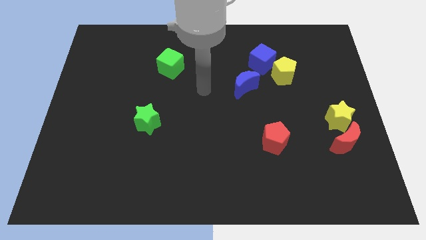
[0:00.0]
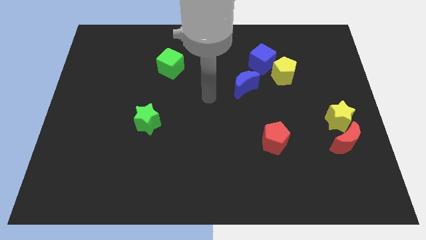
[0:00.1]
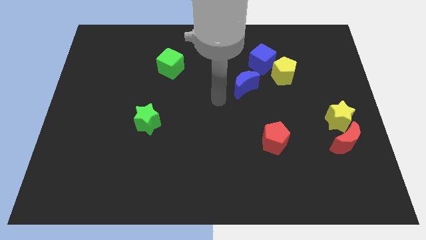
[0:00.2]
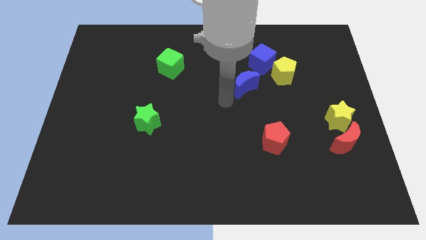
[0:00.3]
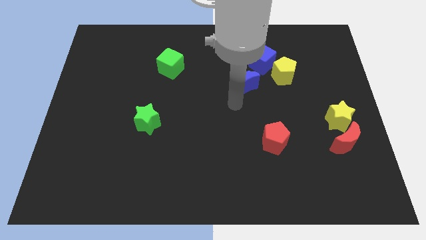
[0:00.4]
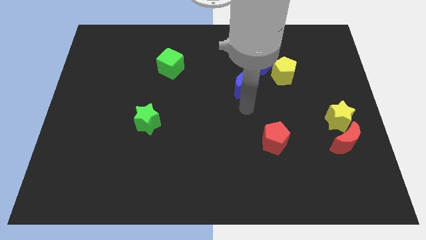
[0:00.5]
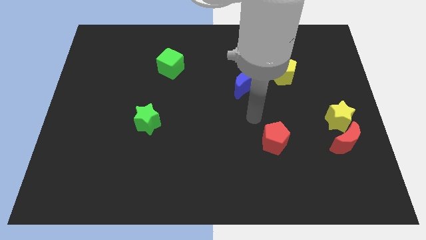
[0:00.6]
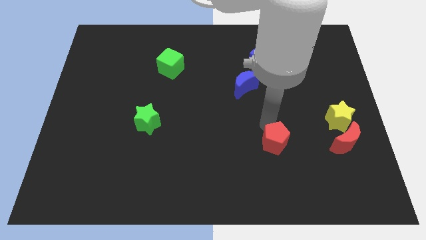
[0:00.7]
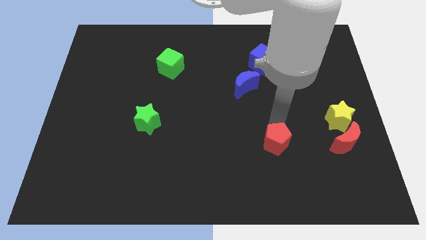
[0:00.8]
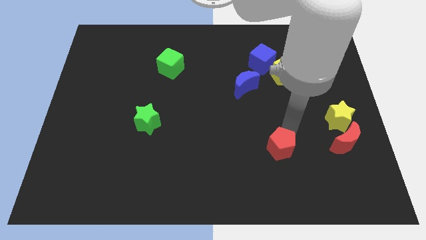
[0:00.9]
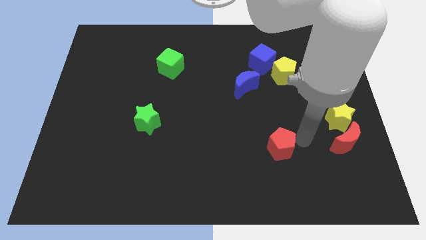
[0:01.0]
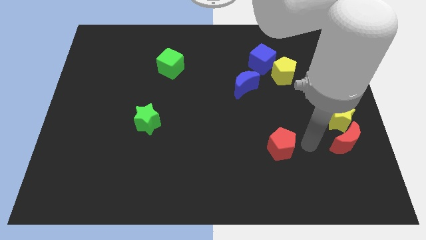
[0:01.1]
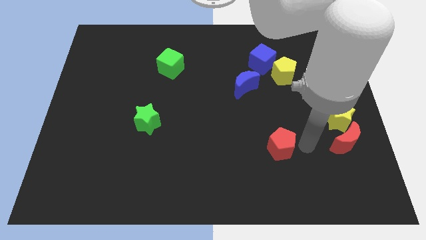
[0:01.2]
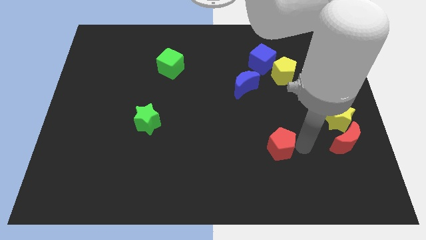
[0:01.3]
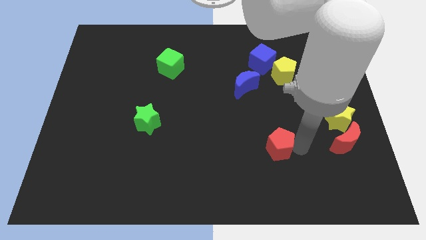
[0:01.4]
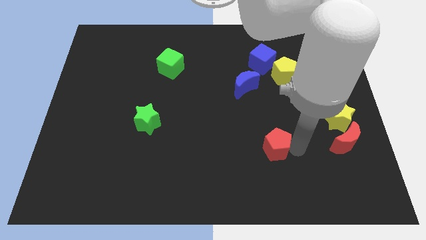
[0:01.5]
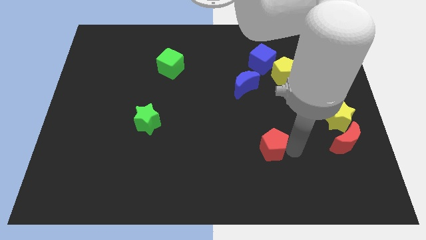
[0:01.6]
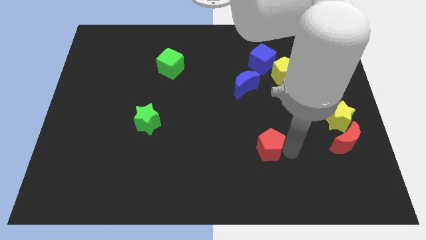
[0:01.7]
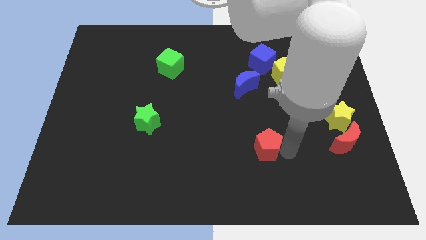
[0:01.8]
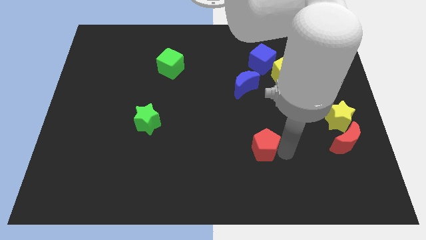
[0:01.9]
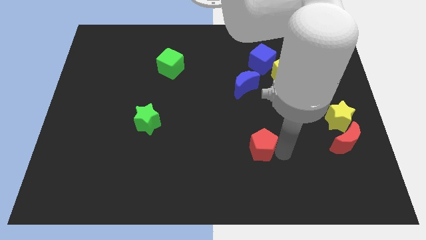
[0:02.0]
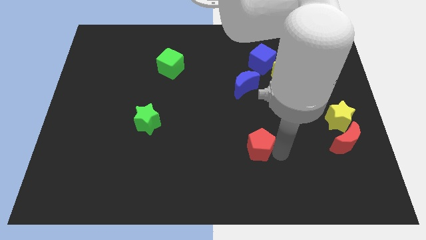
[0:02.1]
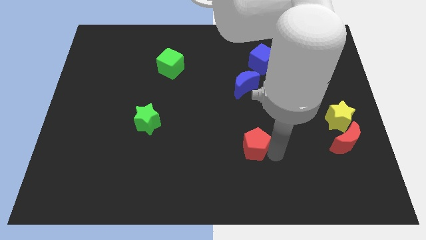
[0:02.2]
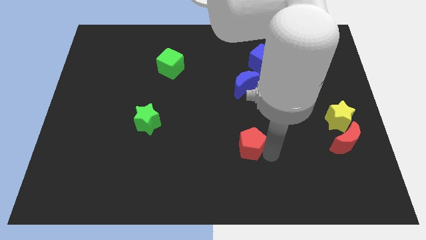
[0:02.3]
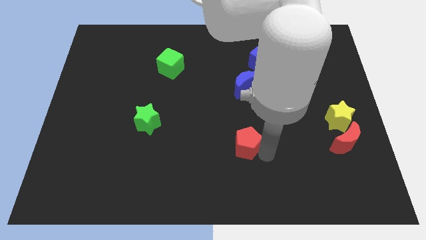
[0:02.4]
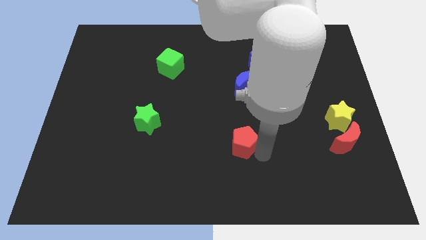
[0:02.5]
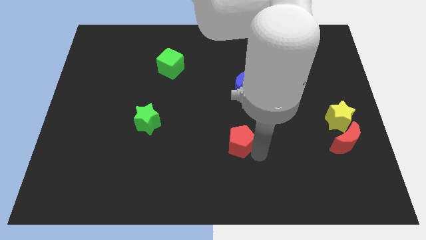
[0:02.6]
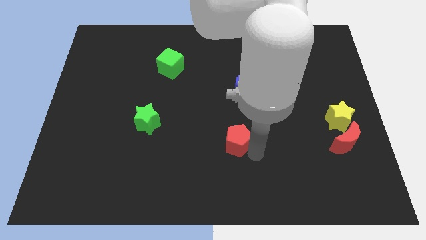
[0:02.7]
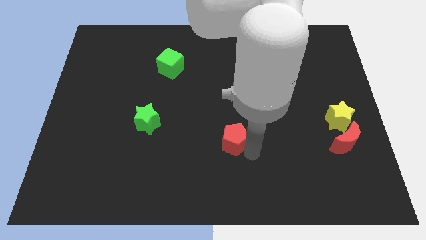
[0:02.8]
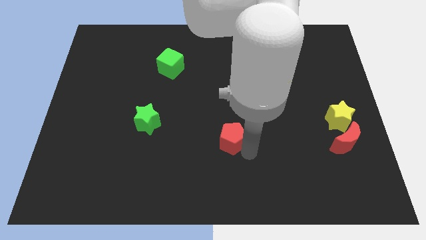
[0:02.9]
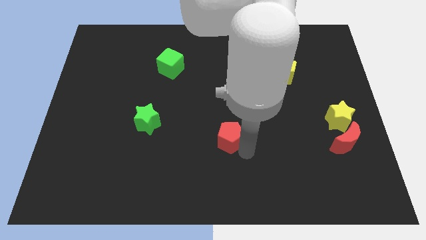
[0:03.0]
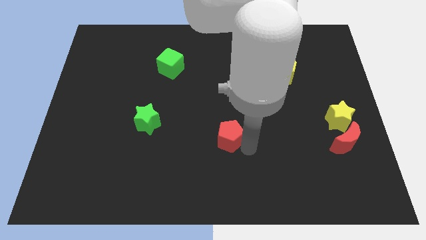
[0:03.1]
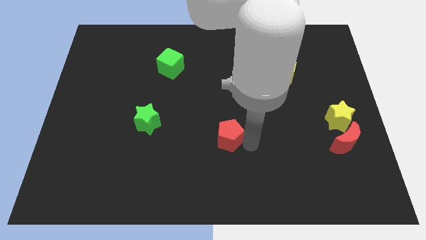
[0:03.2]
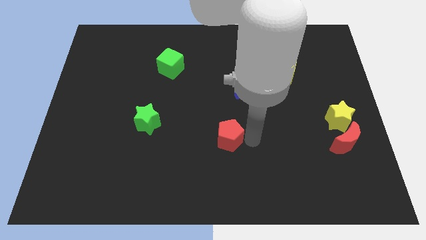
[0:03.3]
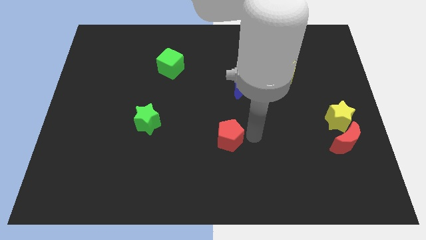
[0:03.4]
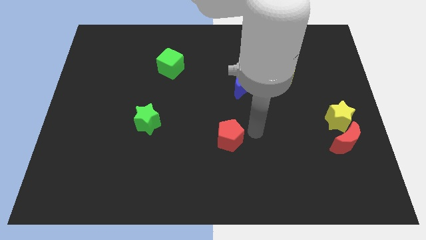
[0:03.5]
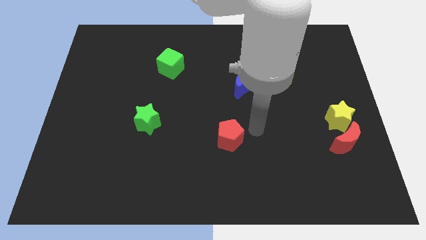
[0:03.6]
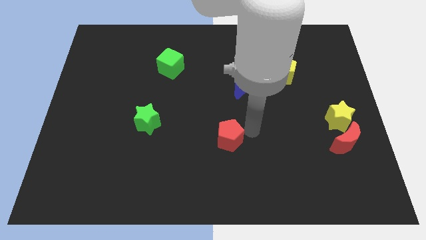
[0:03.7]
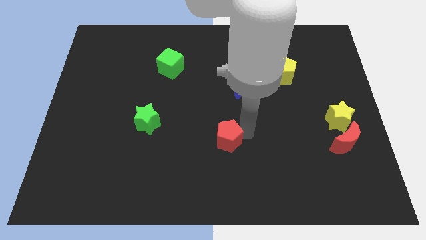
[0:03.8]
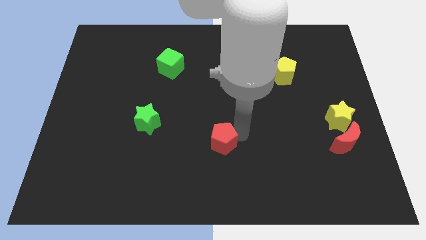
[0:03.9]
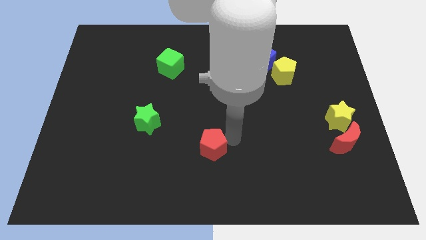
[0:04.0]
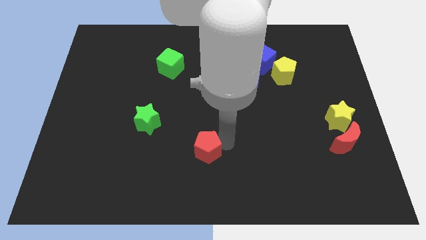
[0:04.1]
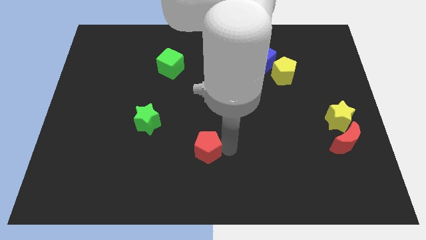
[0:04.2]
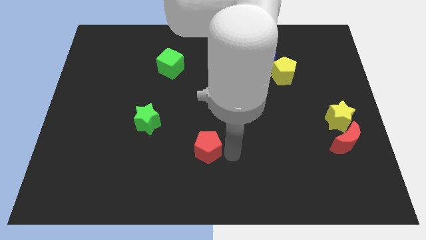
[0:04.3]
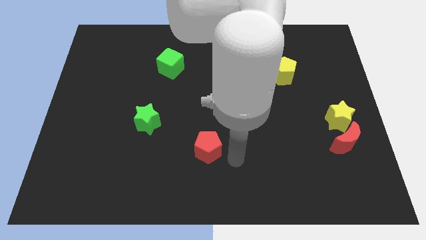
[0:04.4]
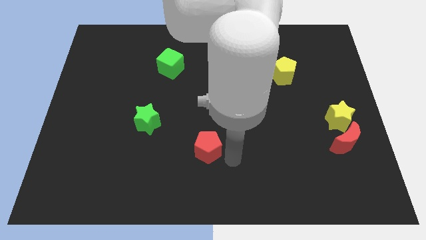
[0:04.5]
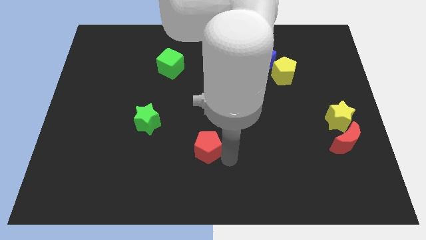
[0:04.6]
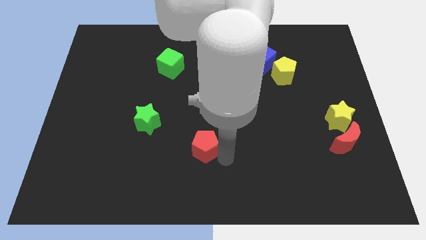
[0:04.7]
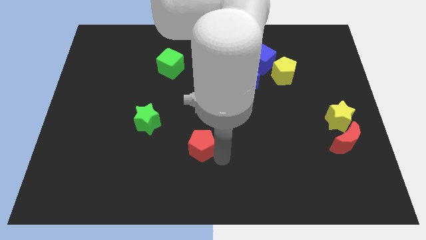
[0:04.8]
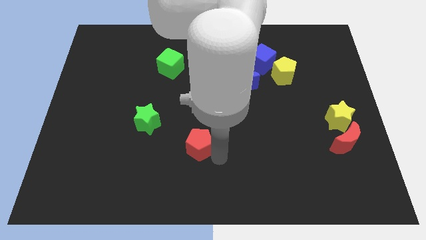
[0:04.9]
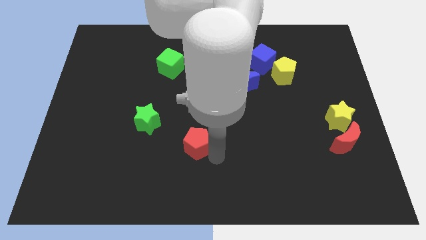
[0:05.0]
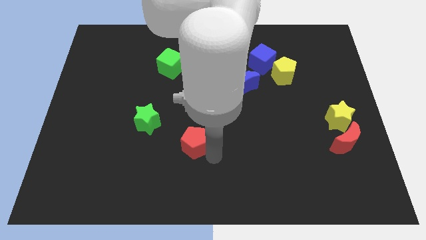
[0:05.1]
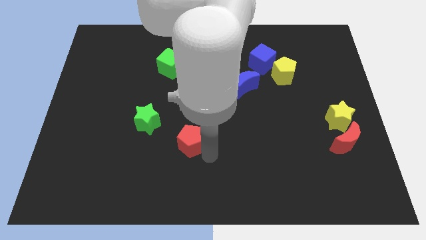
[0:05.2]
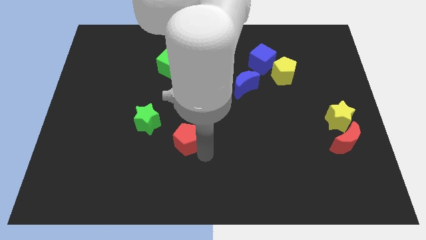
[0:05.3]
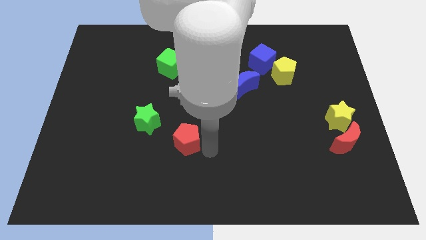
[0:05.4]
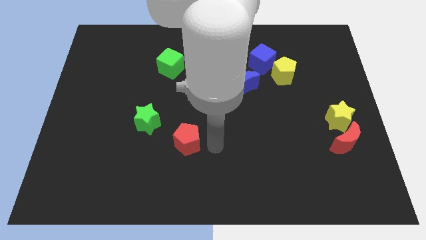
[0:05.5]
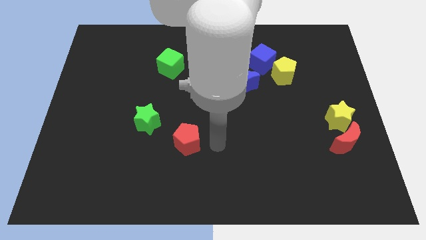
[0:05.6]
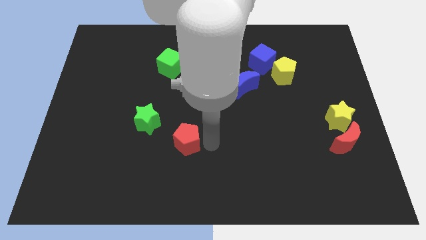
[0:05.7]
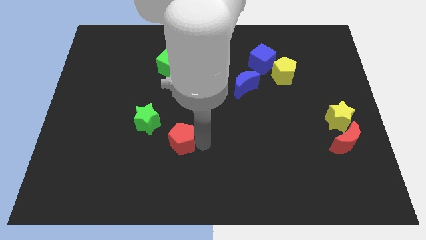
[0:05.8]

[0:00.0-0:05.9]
slide the red pentagon left

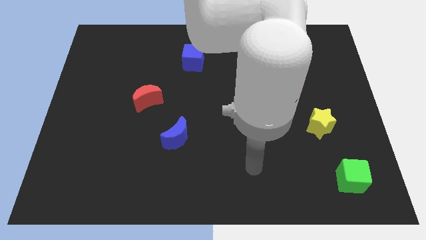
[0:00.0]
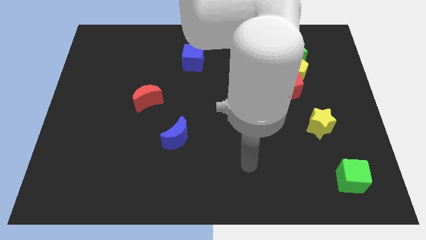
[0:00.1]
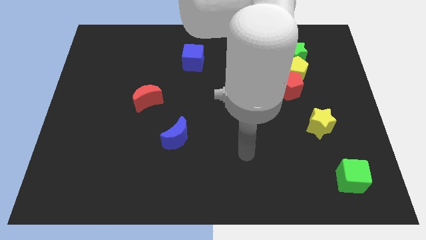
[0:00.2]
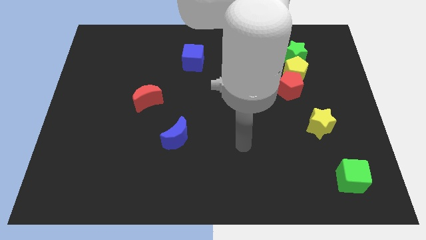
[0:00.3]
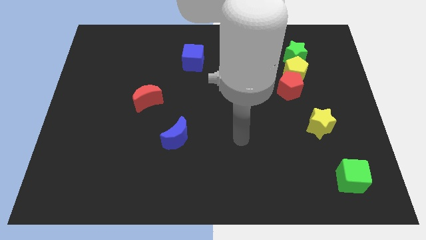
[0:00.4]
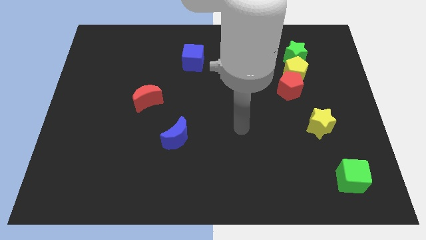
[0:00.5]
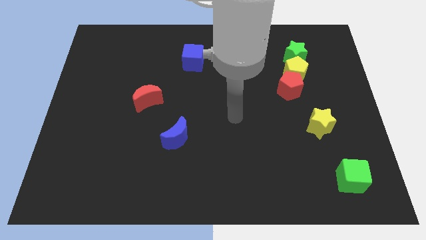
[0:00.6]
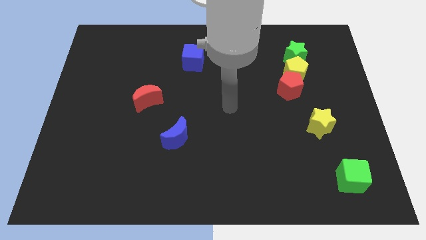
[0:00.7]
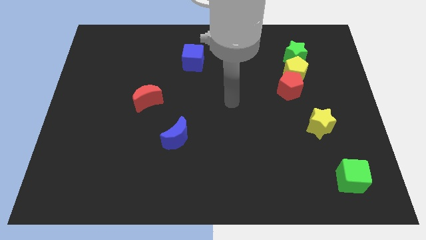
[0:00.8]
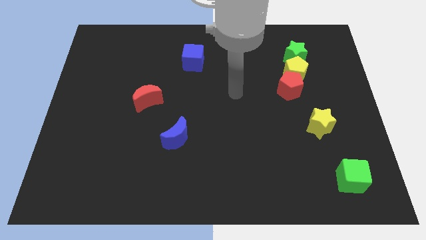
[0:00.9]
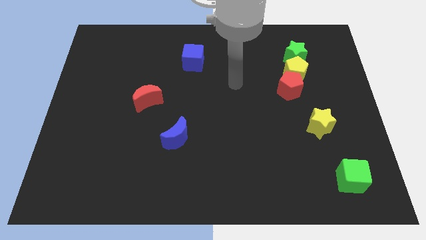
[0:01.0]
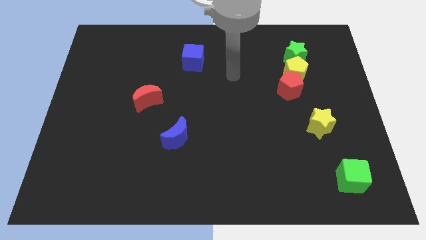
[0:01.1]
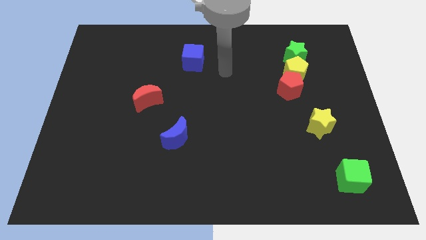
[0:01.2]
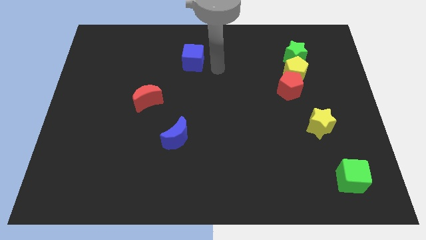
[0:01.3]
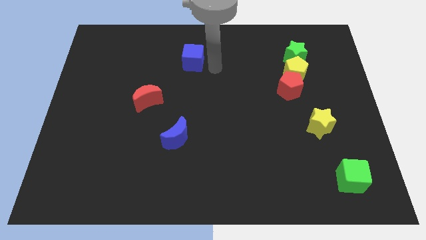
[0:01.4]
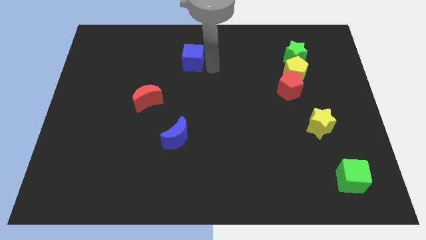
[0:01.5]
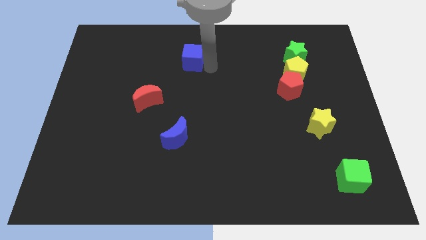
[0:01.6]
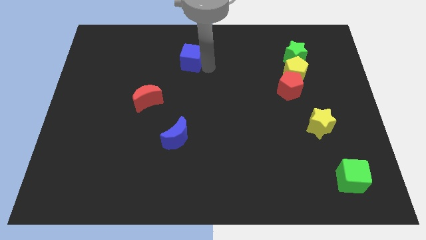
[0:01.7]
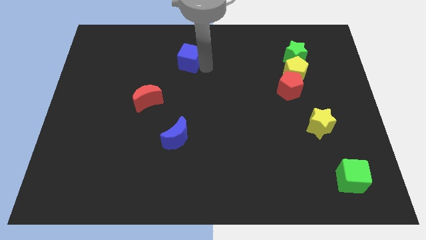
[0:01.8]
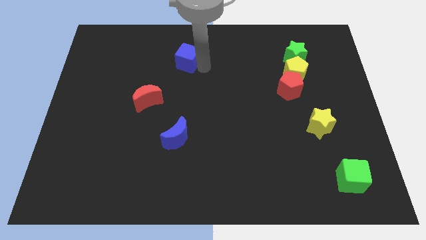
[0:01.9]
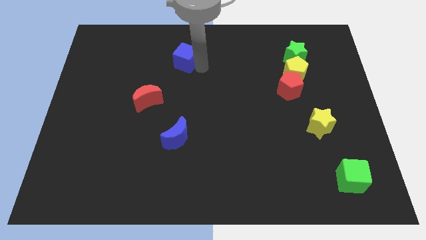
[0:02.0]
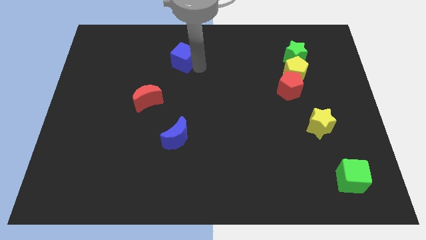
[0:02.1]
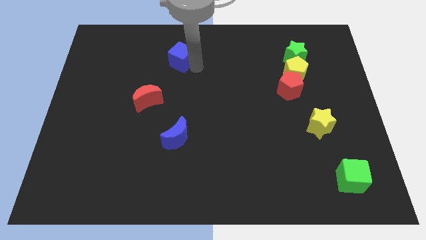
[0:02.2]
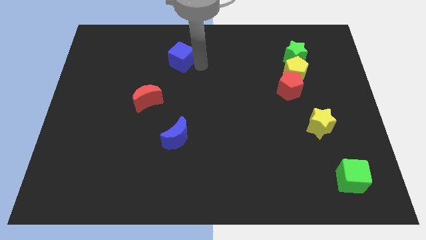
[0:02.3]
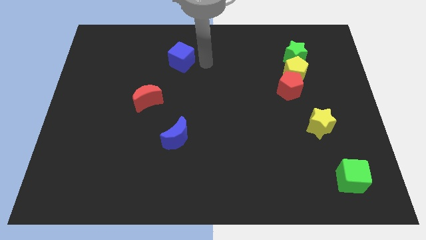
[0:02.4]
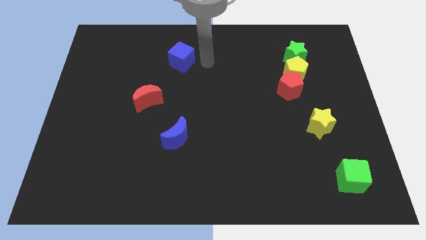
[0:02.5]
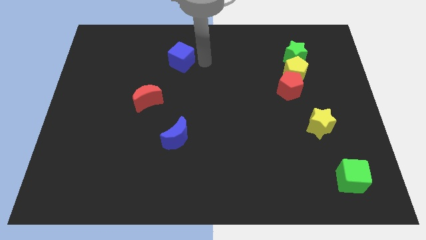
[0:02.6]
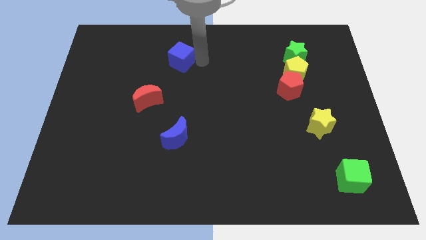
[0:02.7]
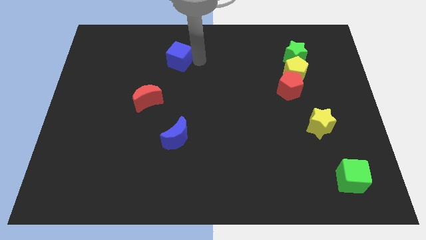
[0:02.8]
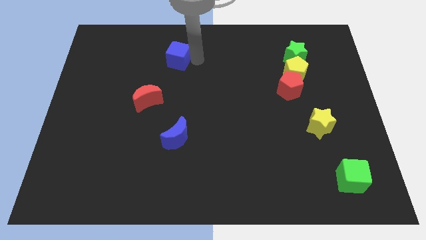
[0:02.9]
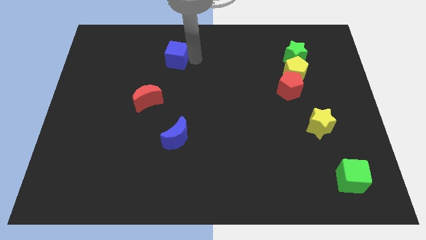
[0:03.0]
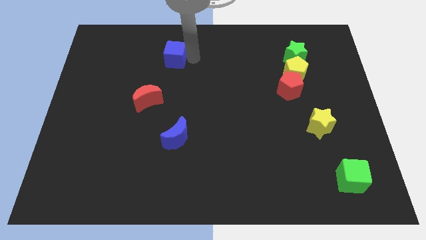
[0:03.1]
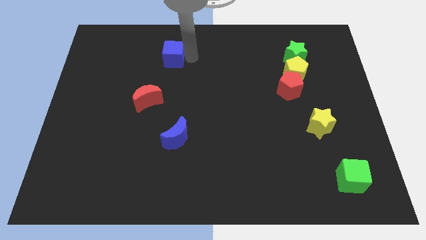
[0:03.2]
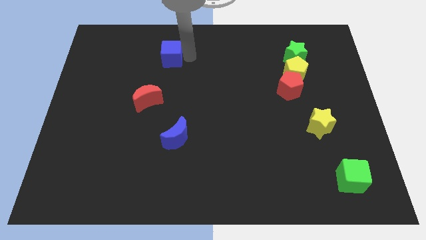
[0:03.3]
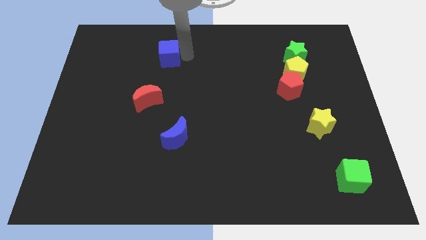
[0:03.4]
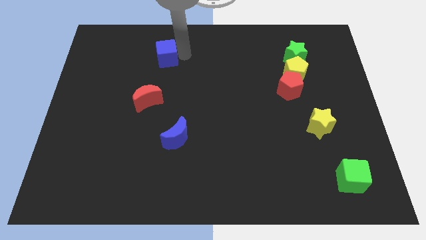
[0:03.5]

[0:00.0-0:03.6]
slightly move the blue cube to the left
